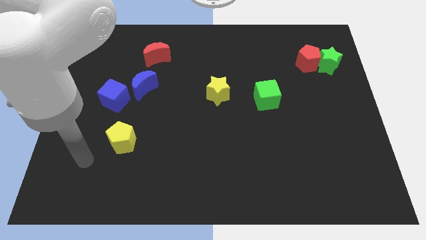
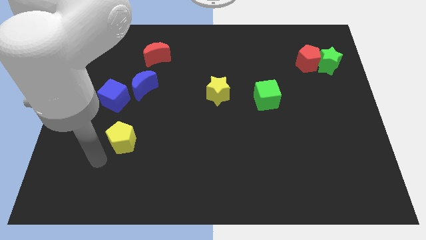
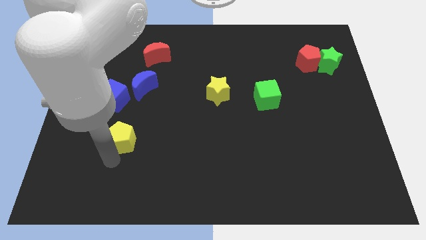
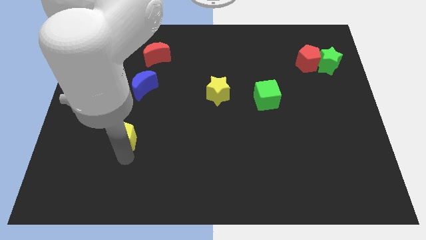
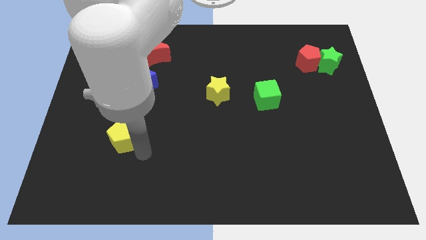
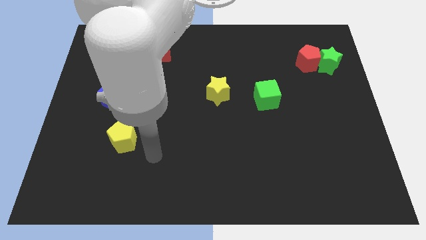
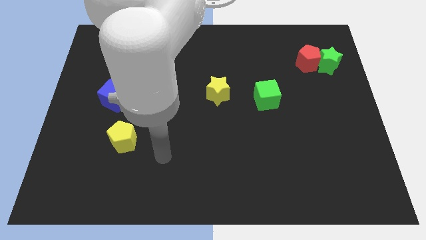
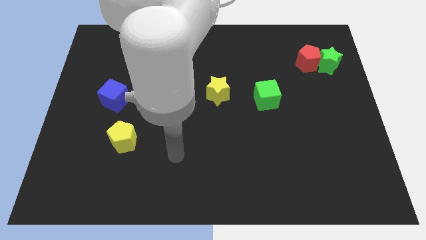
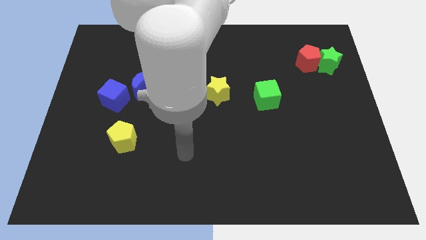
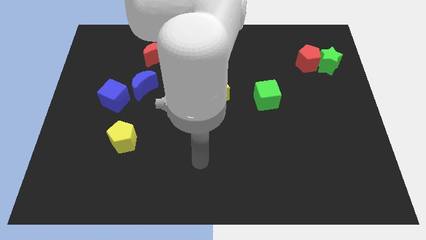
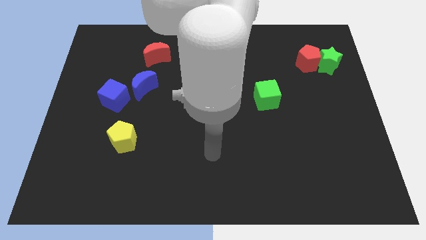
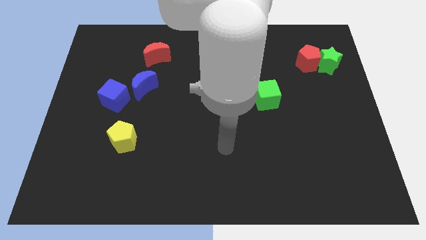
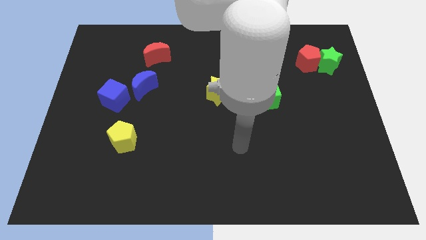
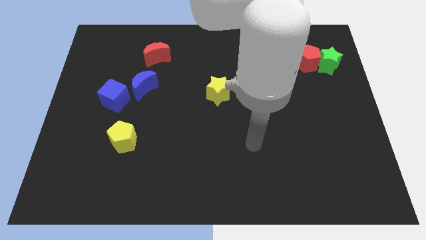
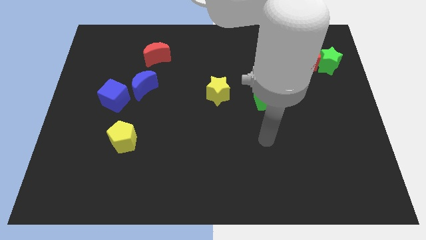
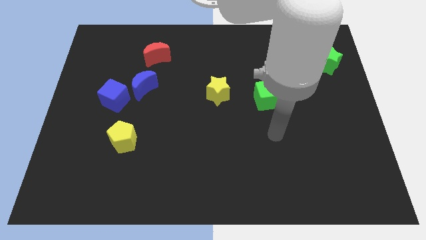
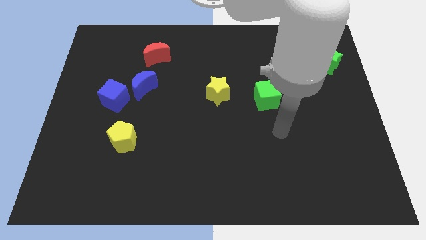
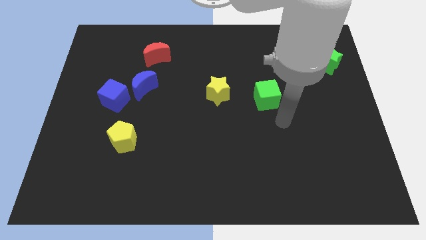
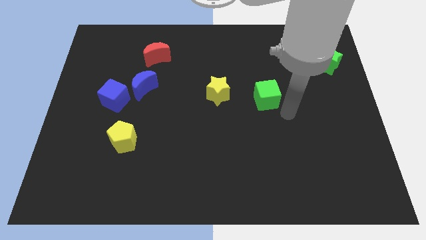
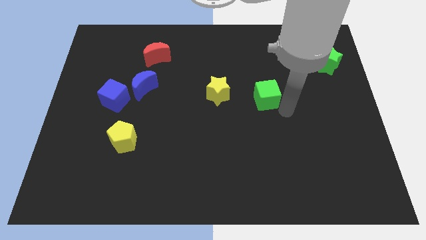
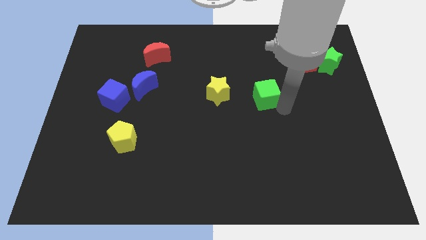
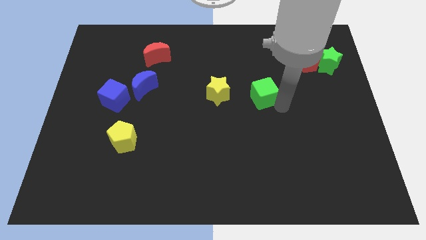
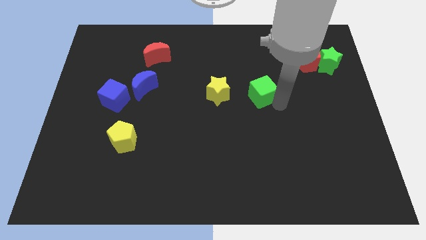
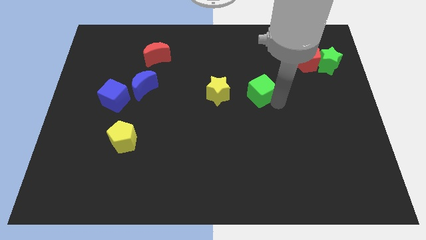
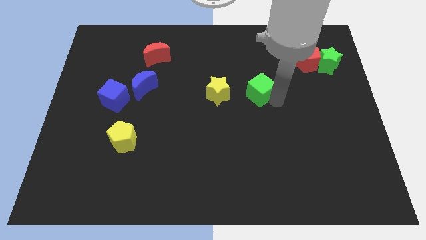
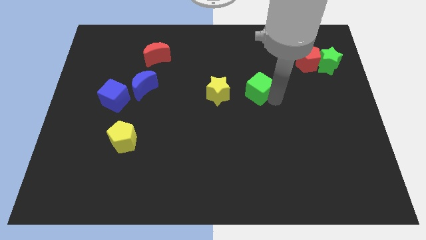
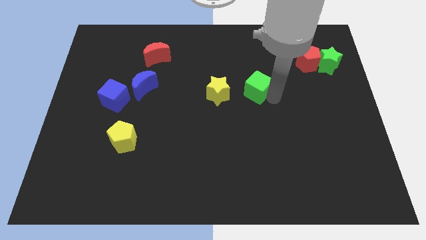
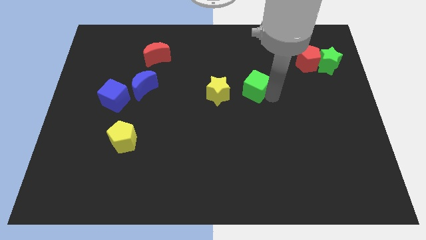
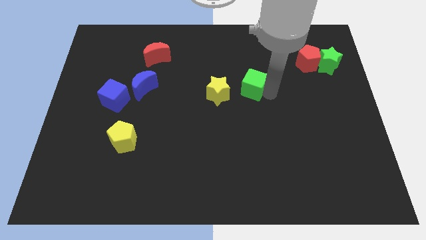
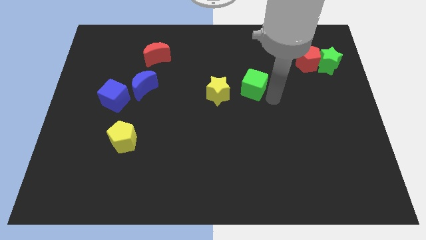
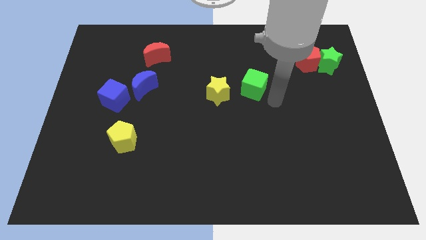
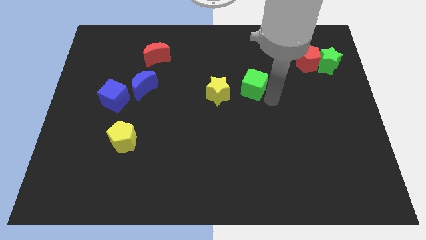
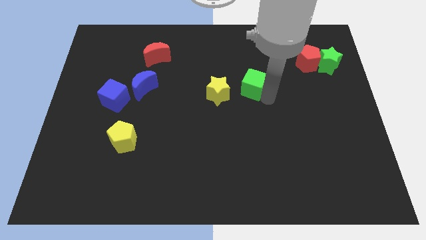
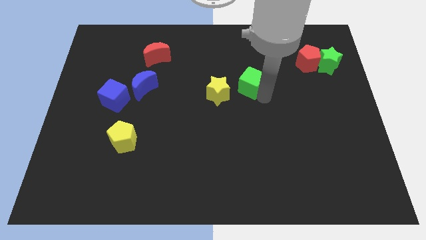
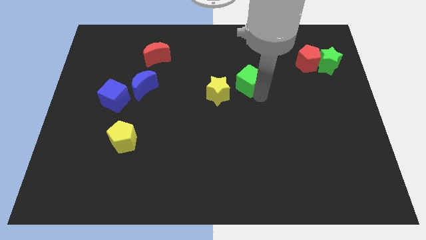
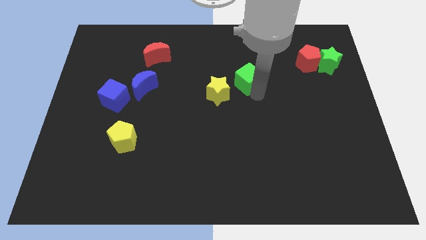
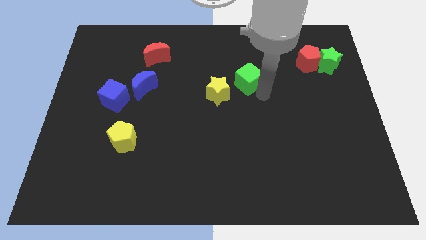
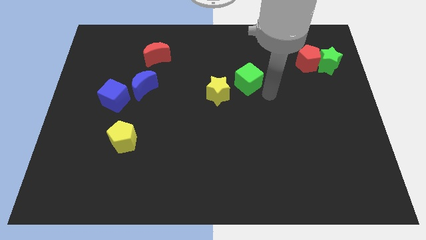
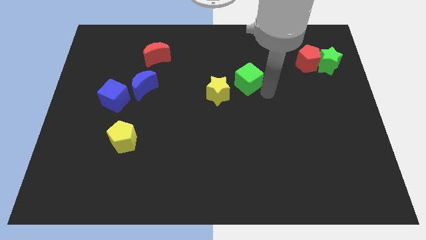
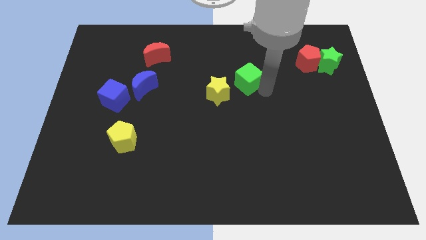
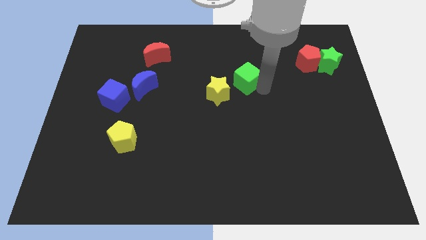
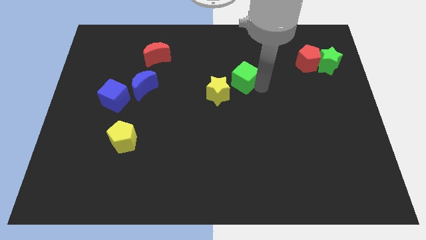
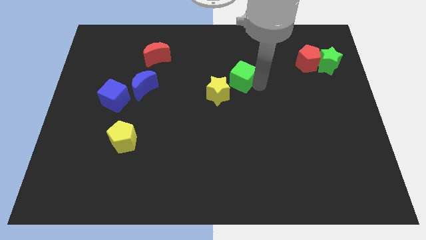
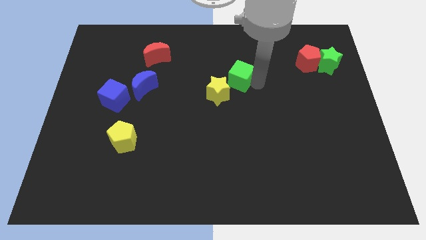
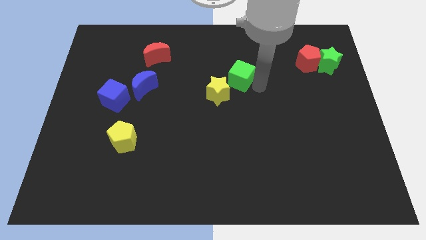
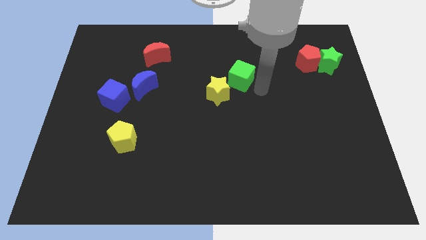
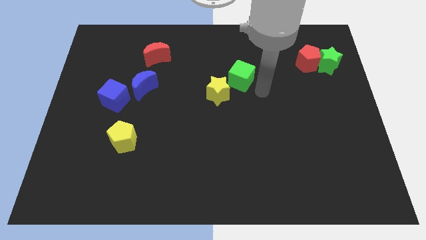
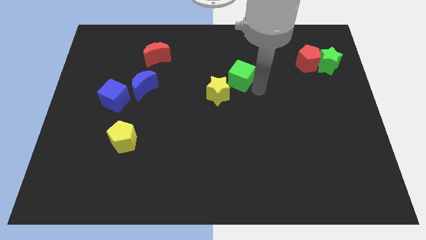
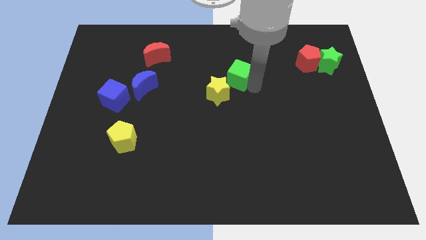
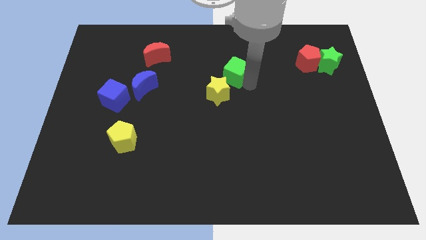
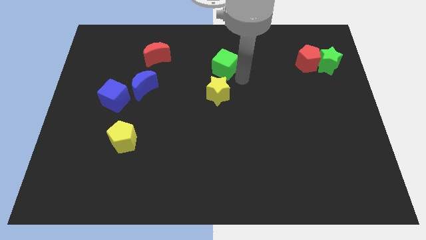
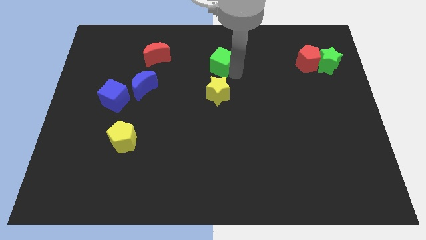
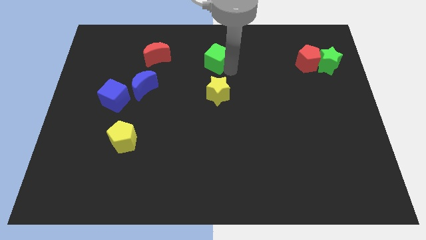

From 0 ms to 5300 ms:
slide the green cube just right of the red moon

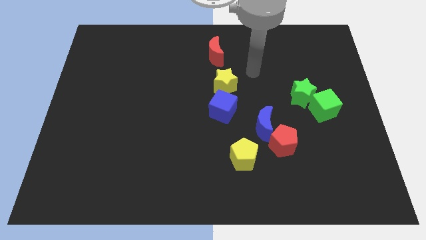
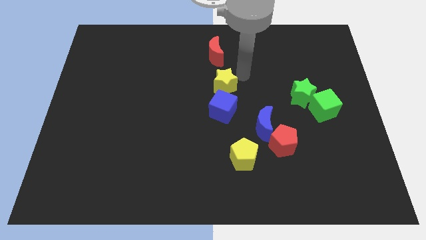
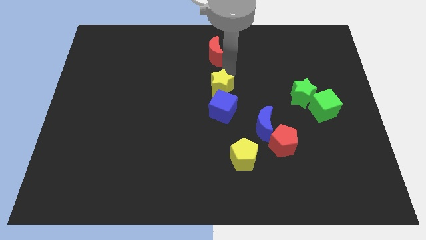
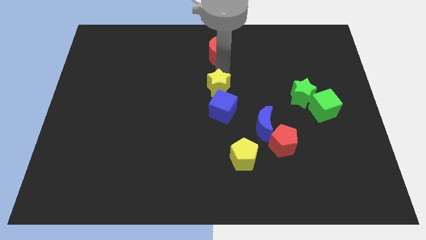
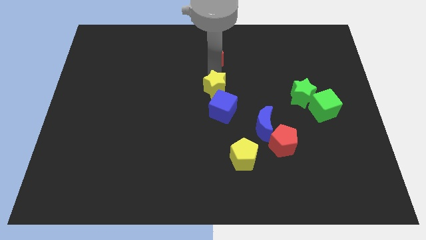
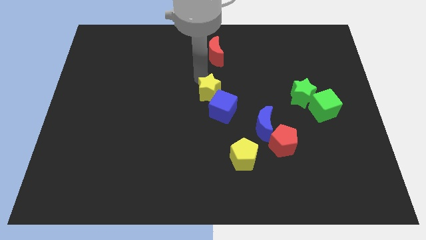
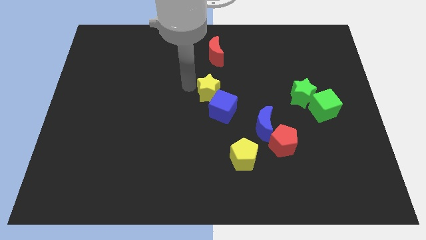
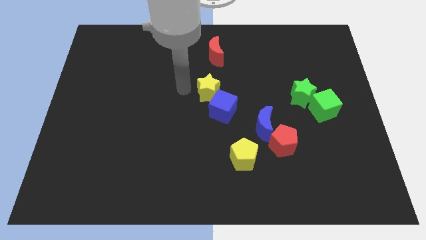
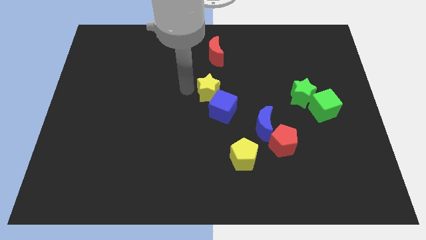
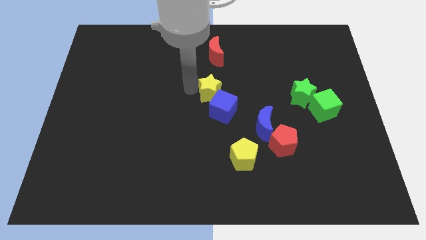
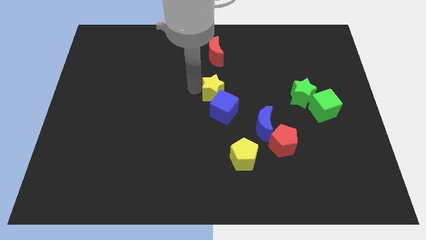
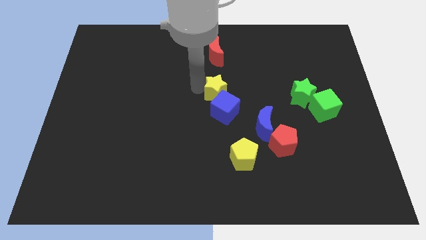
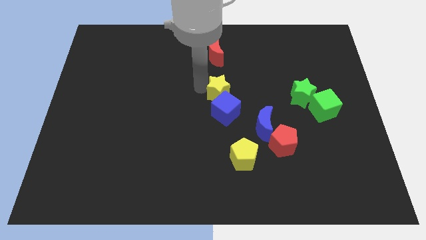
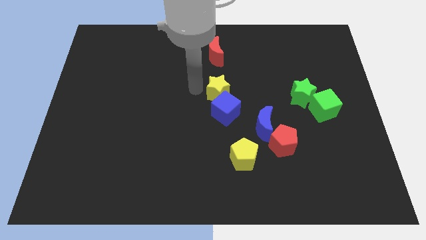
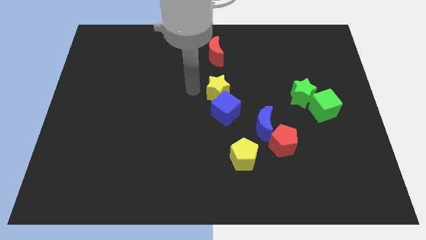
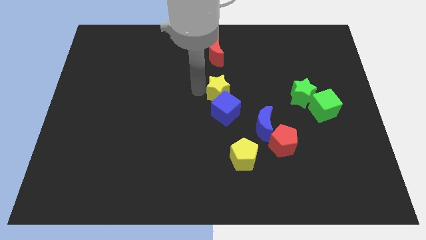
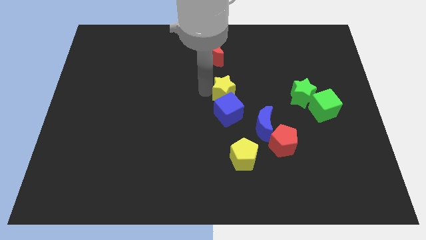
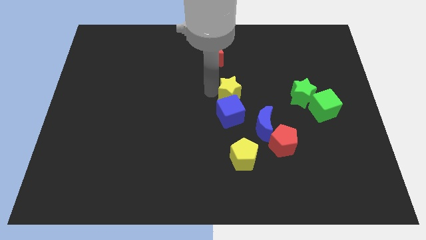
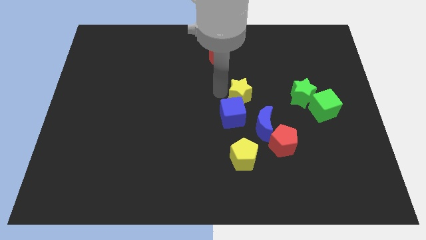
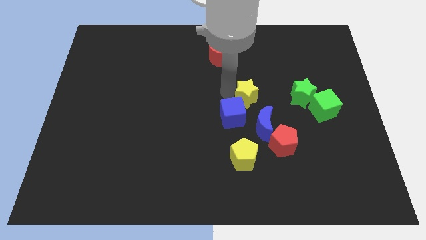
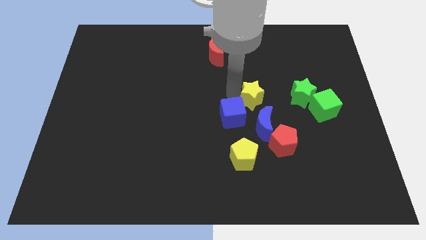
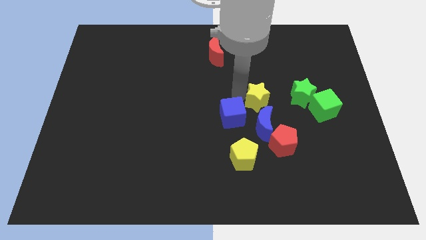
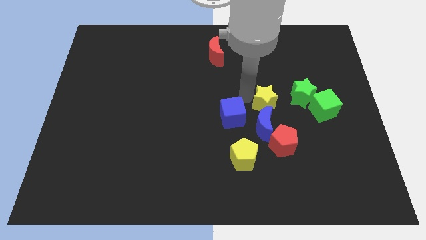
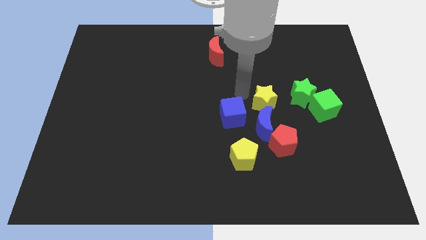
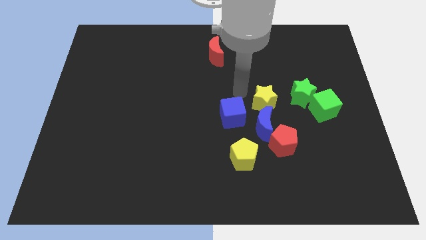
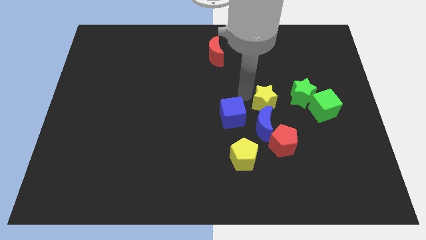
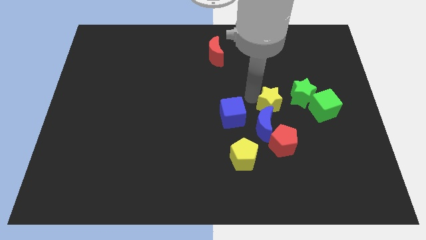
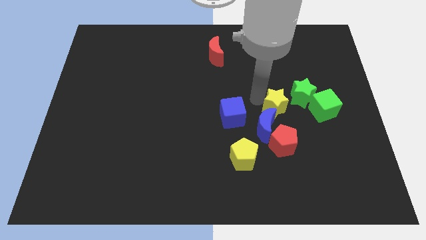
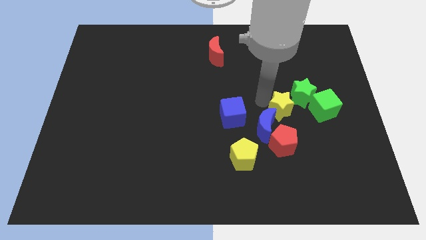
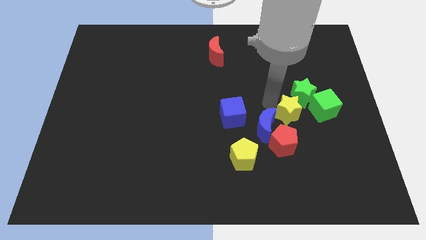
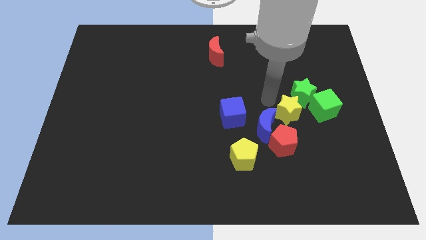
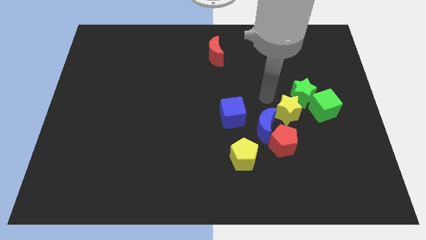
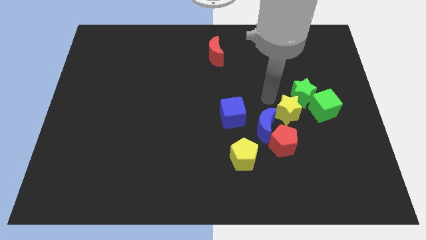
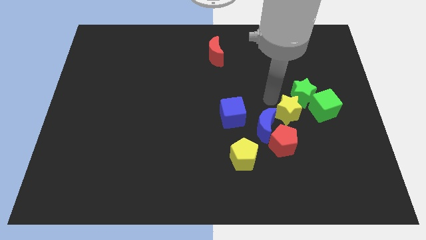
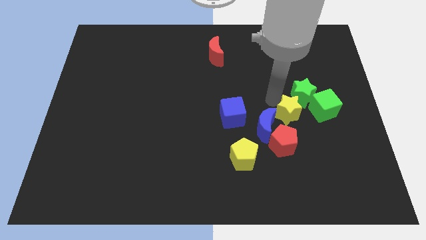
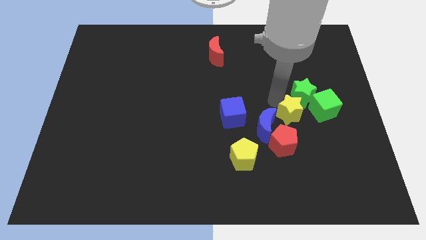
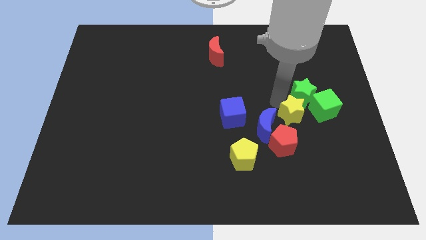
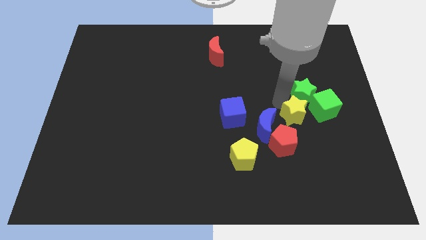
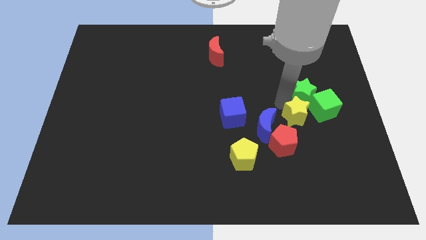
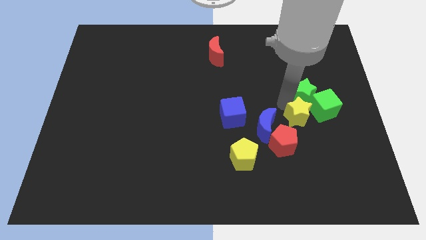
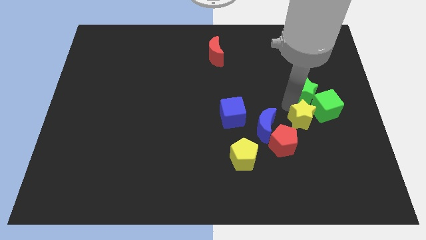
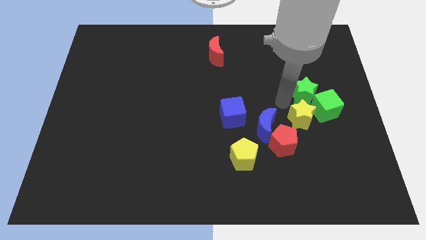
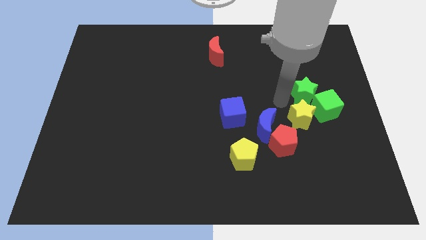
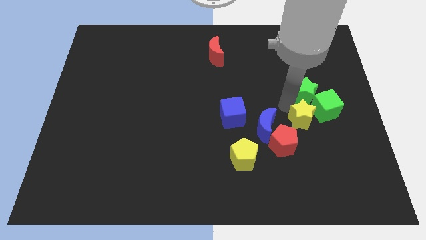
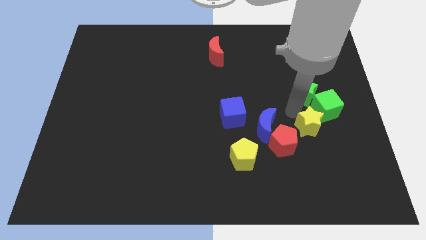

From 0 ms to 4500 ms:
push the yellow star to the bottom side of the green cube
